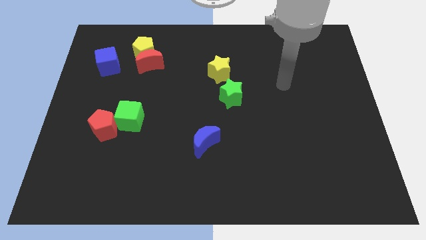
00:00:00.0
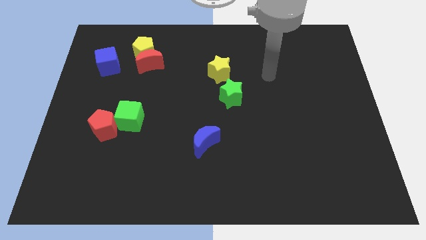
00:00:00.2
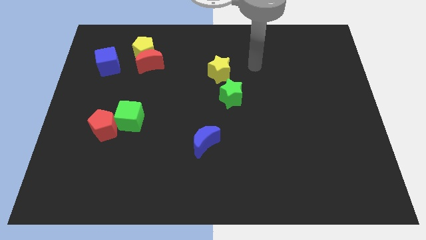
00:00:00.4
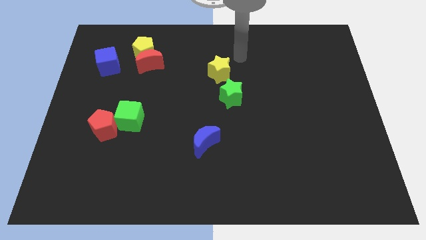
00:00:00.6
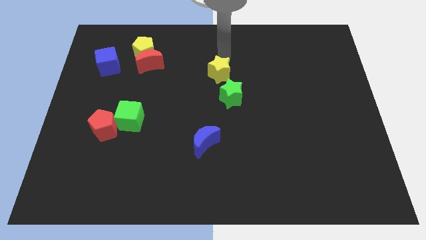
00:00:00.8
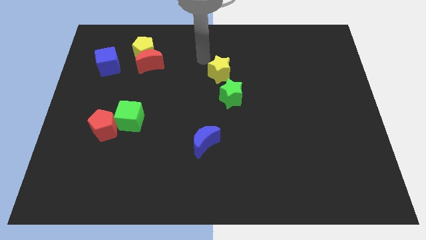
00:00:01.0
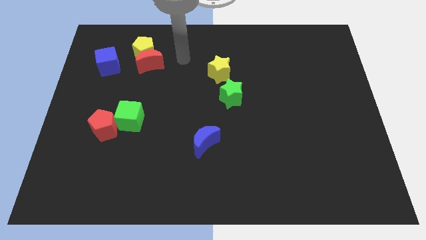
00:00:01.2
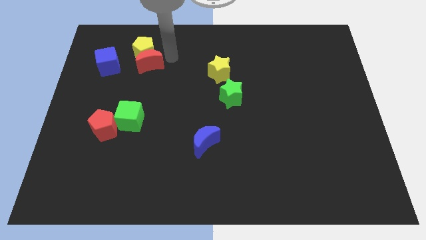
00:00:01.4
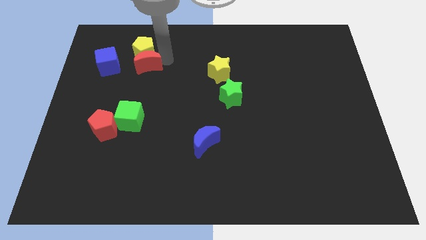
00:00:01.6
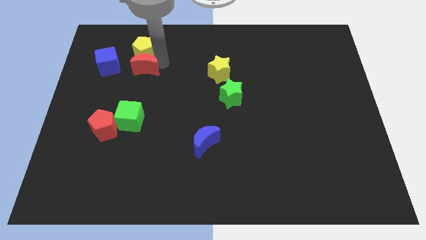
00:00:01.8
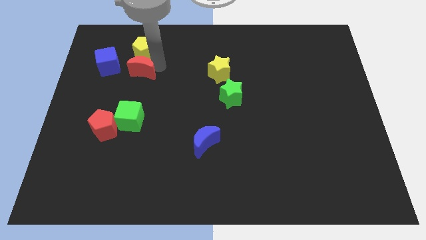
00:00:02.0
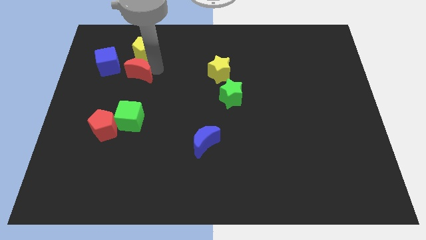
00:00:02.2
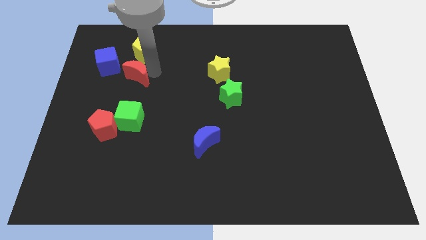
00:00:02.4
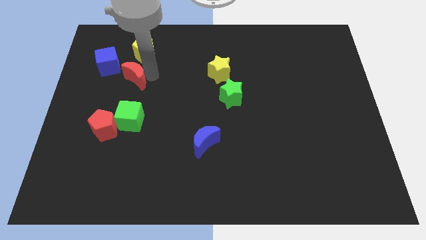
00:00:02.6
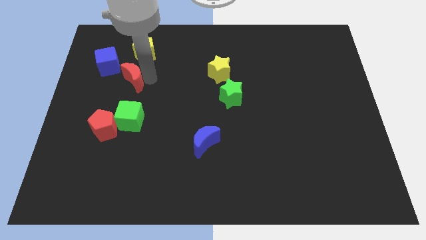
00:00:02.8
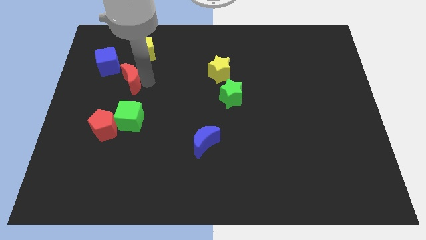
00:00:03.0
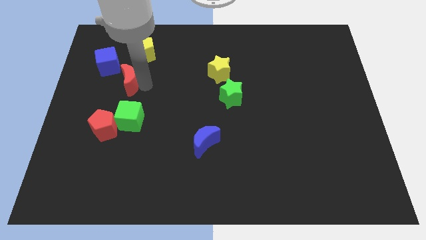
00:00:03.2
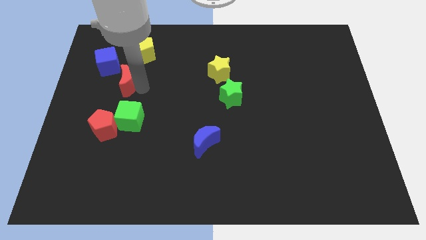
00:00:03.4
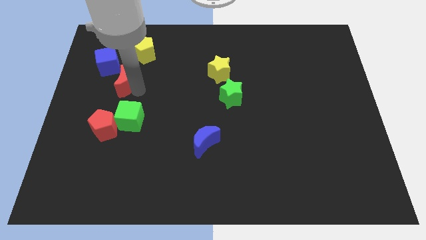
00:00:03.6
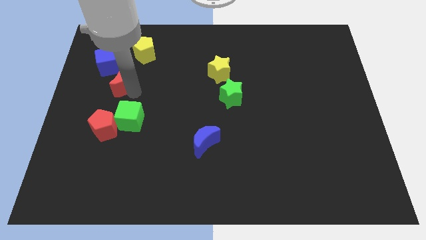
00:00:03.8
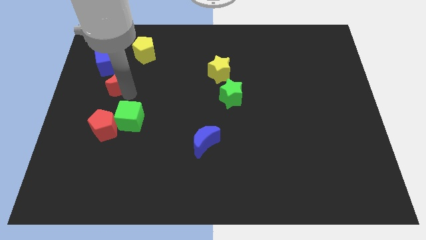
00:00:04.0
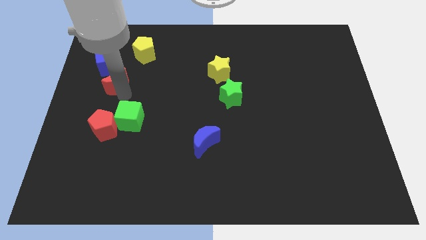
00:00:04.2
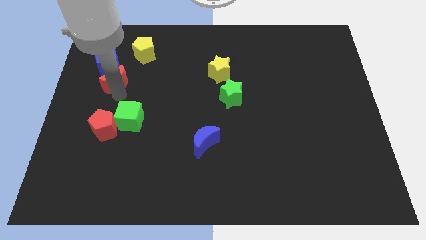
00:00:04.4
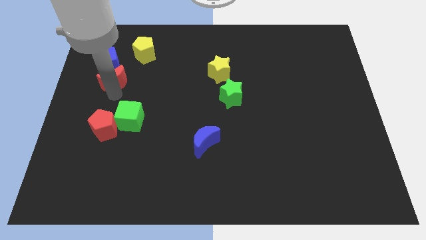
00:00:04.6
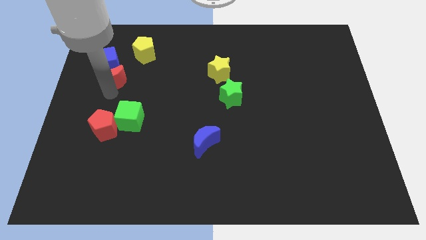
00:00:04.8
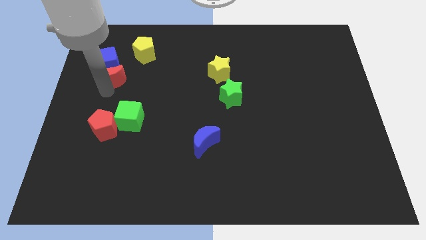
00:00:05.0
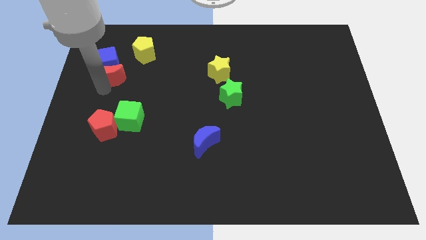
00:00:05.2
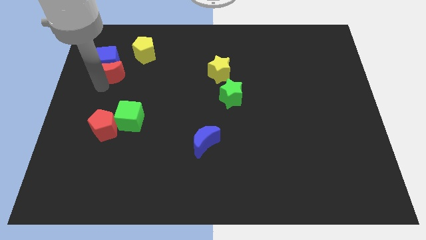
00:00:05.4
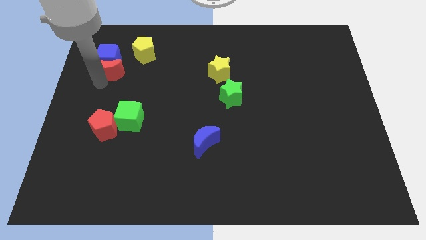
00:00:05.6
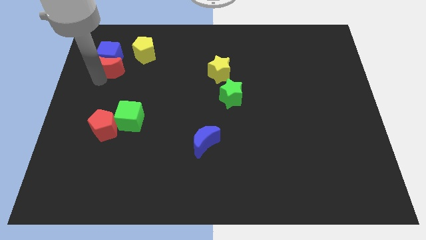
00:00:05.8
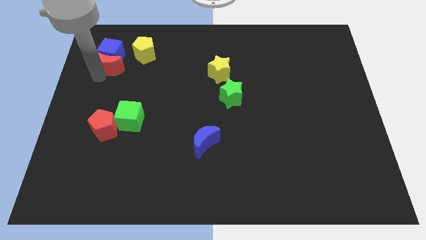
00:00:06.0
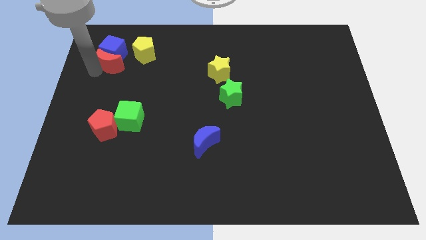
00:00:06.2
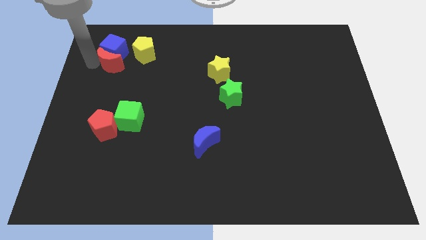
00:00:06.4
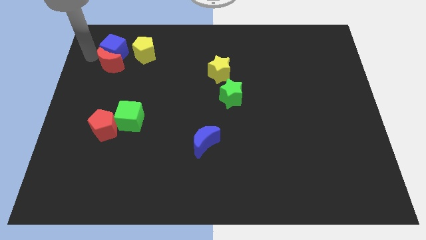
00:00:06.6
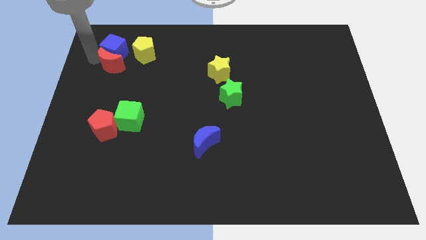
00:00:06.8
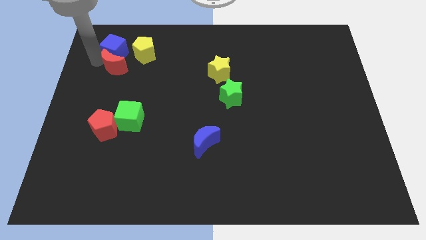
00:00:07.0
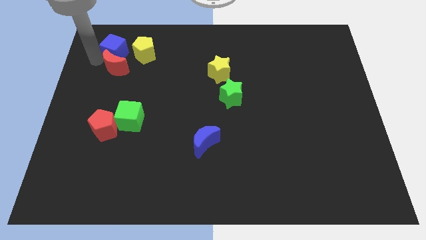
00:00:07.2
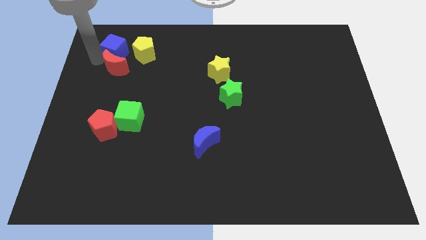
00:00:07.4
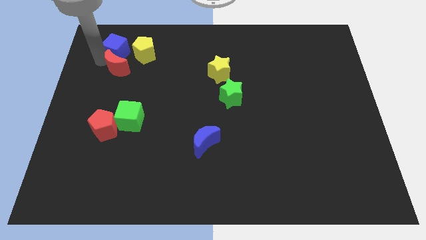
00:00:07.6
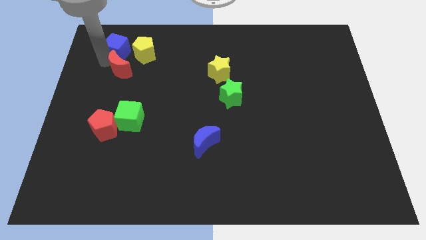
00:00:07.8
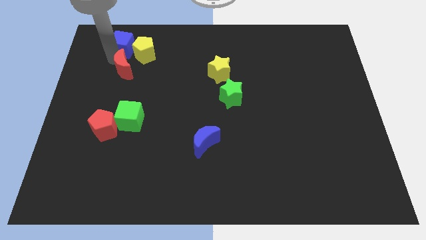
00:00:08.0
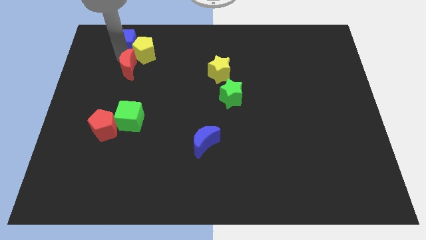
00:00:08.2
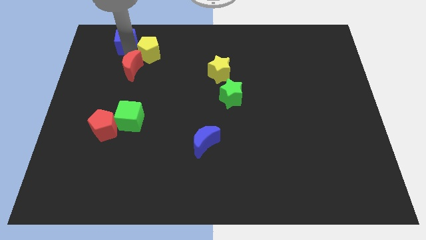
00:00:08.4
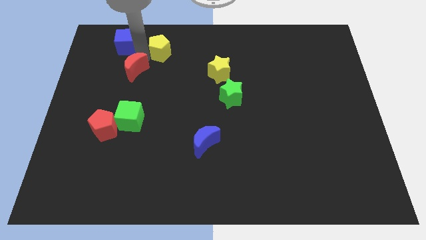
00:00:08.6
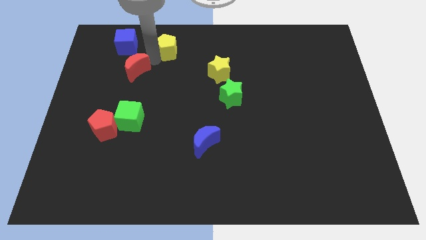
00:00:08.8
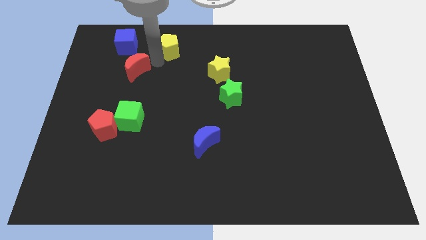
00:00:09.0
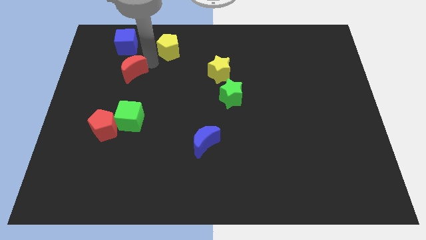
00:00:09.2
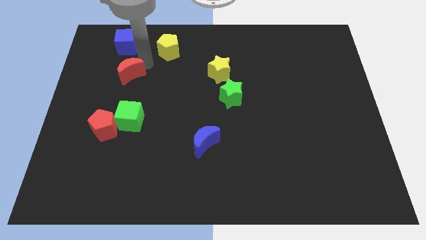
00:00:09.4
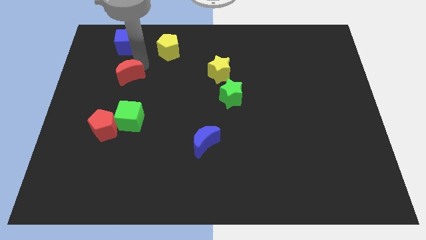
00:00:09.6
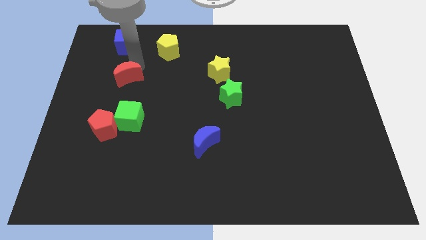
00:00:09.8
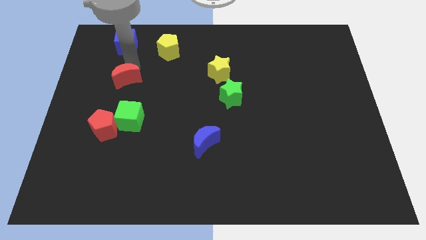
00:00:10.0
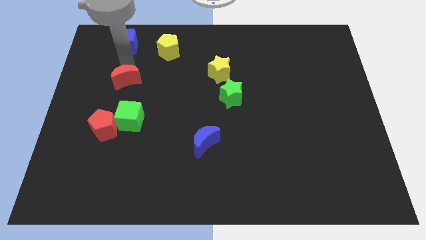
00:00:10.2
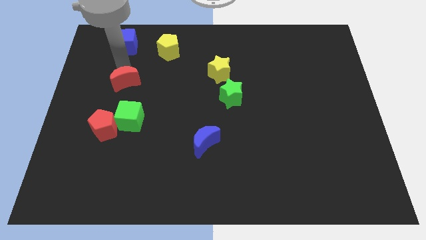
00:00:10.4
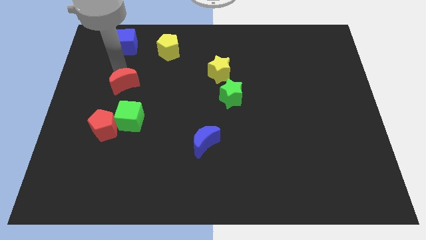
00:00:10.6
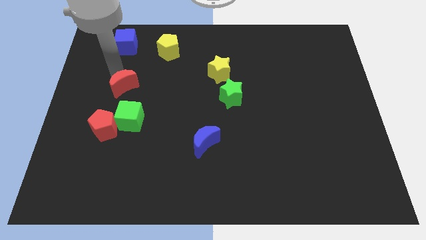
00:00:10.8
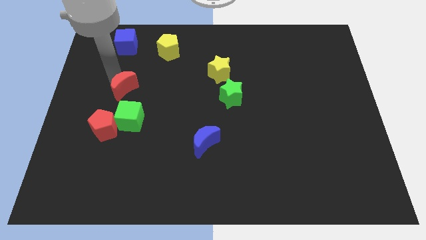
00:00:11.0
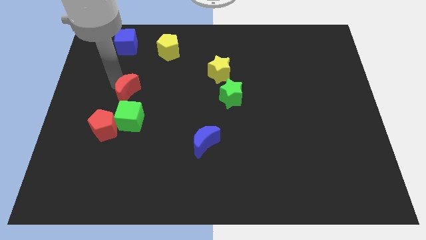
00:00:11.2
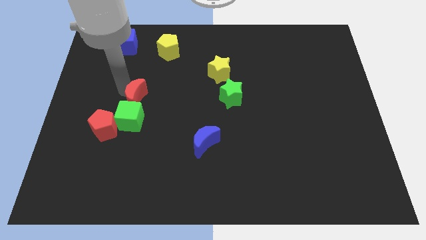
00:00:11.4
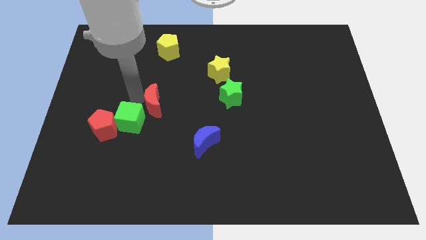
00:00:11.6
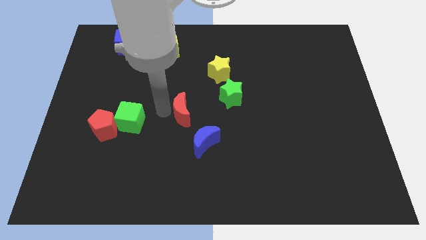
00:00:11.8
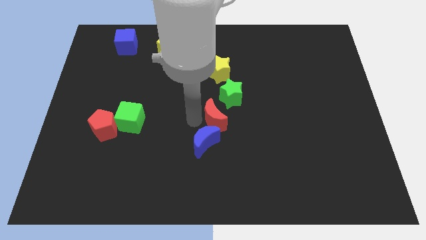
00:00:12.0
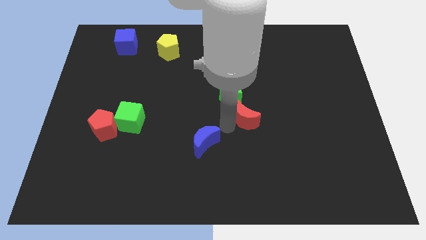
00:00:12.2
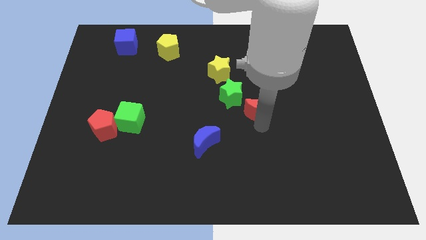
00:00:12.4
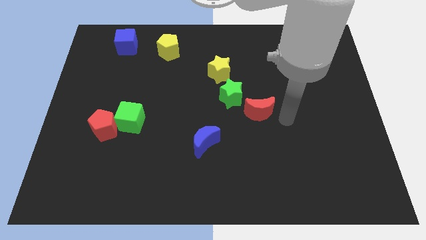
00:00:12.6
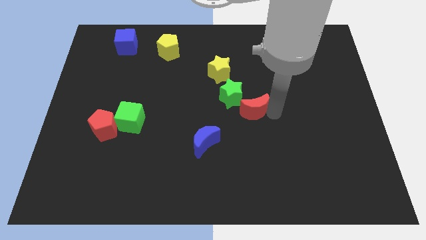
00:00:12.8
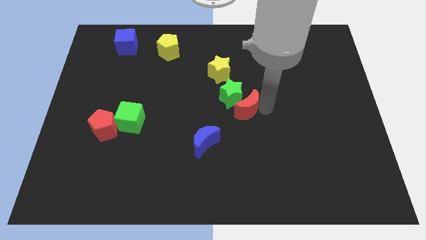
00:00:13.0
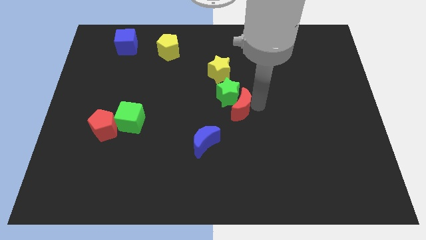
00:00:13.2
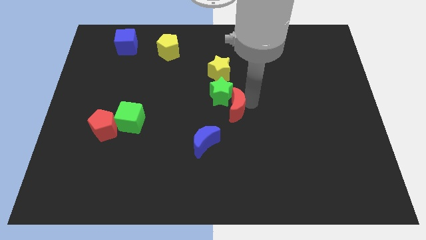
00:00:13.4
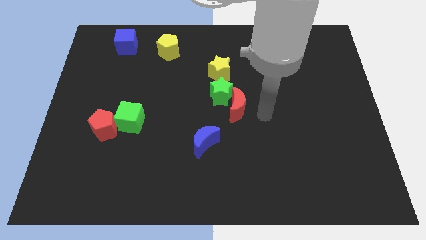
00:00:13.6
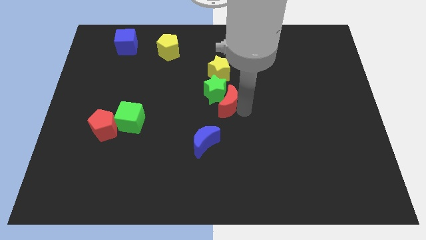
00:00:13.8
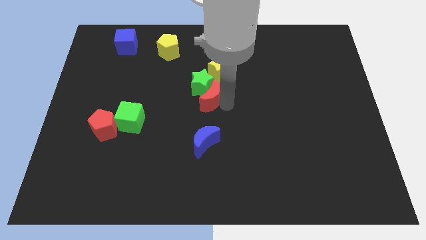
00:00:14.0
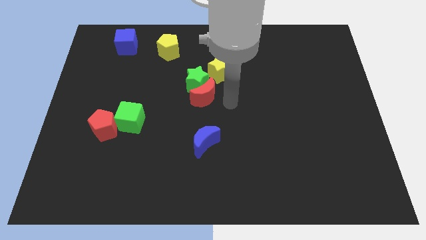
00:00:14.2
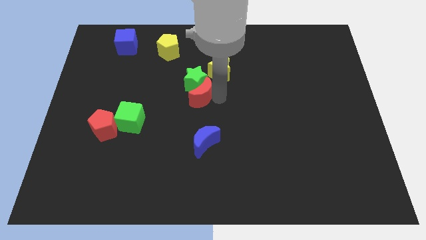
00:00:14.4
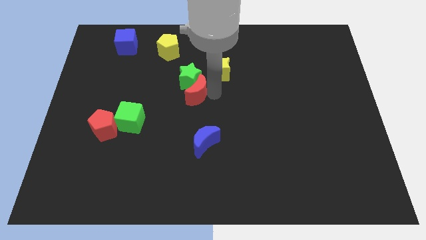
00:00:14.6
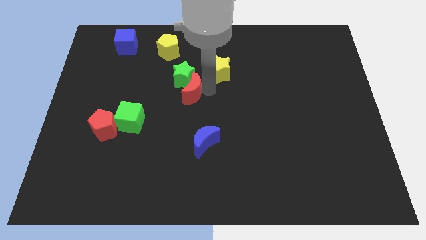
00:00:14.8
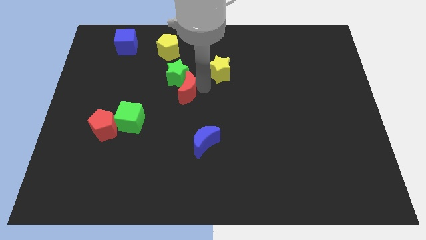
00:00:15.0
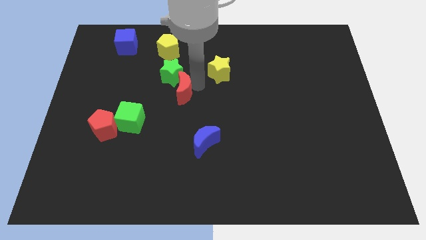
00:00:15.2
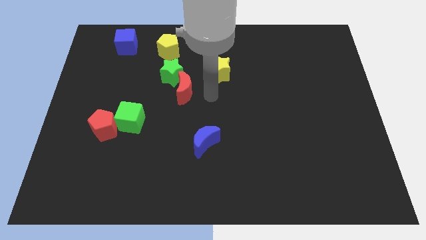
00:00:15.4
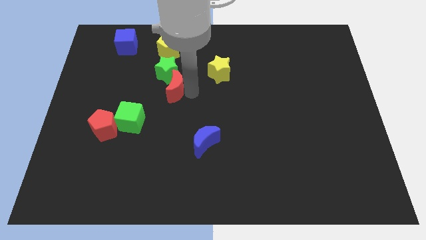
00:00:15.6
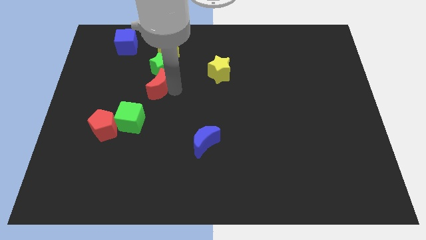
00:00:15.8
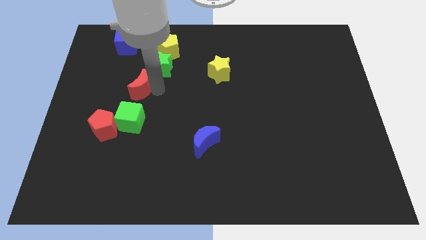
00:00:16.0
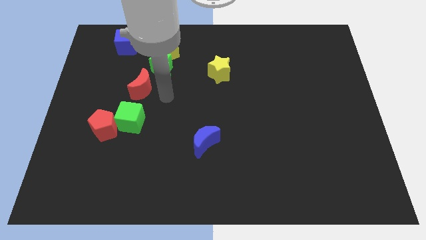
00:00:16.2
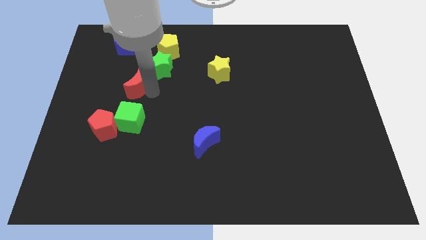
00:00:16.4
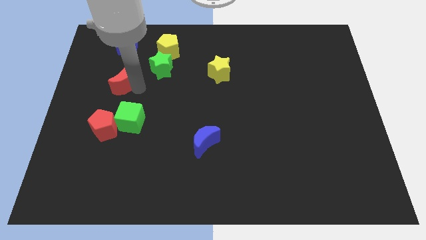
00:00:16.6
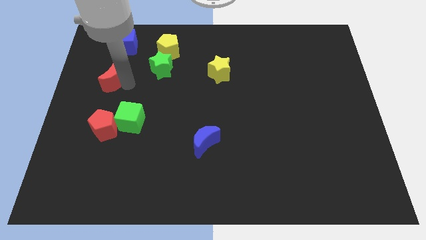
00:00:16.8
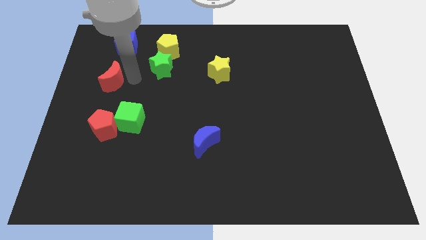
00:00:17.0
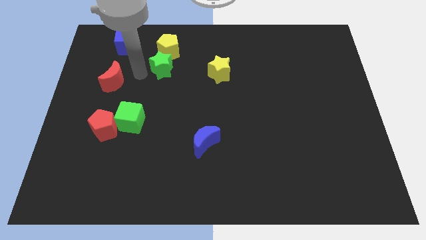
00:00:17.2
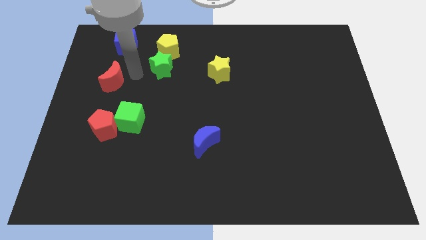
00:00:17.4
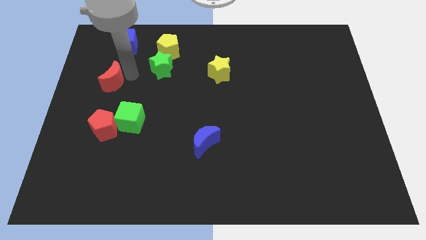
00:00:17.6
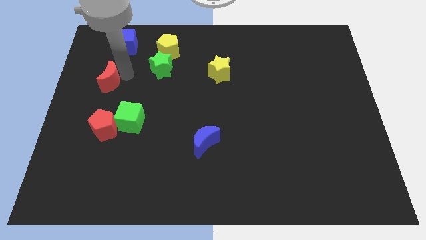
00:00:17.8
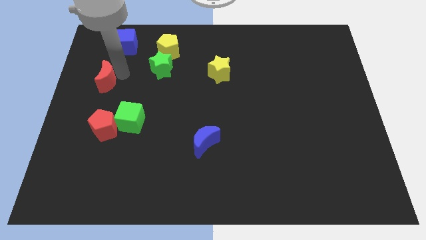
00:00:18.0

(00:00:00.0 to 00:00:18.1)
move the red moon to the left side of the board
